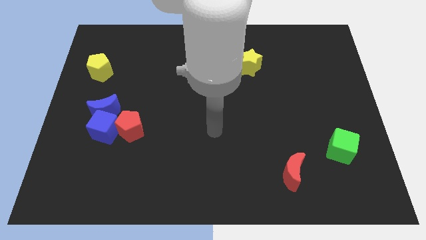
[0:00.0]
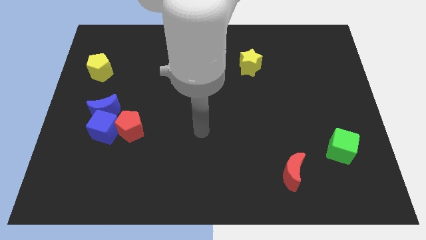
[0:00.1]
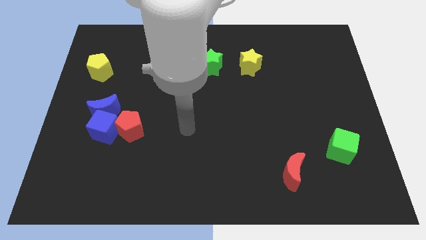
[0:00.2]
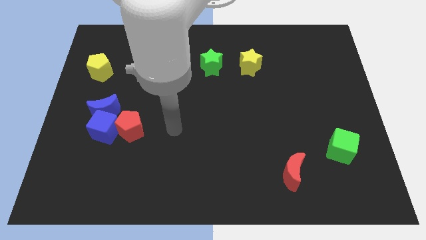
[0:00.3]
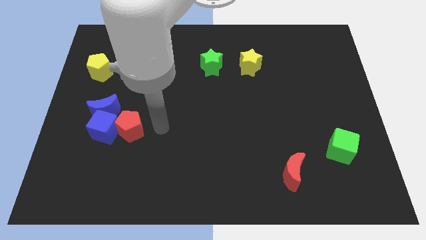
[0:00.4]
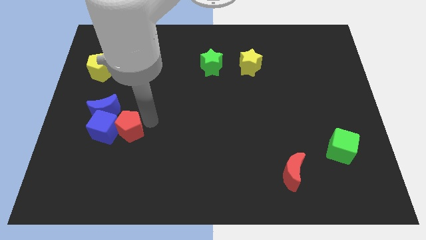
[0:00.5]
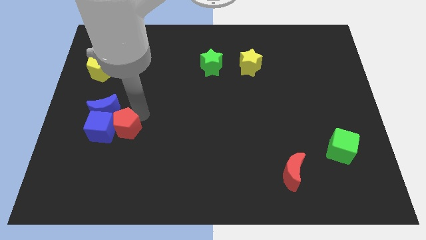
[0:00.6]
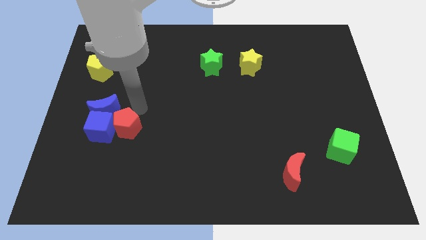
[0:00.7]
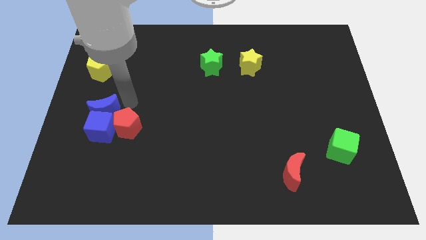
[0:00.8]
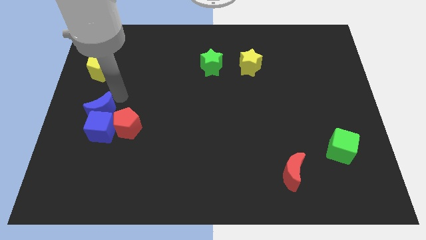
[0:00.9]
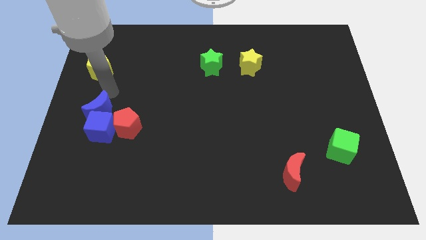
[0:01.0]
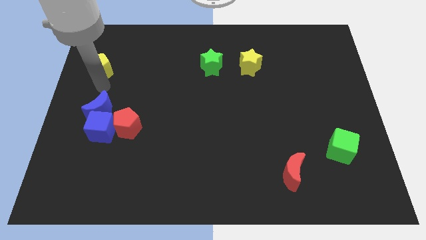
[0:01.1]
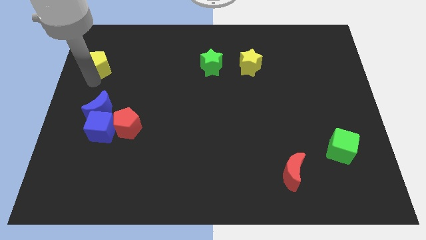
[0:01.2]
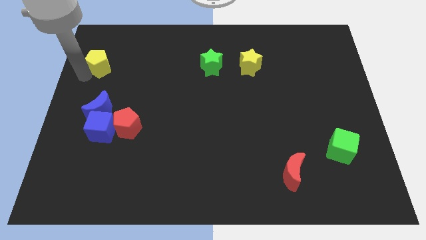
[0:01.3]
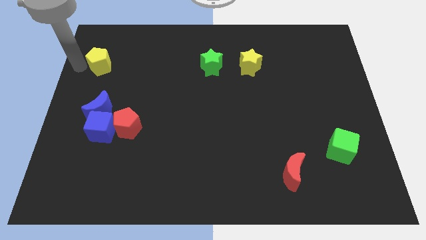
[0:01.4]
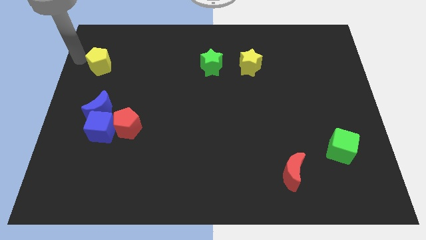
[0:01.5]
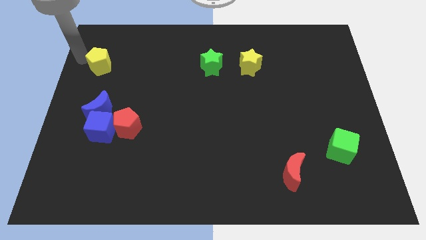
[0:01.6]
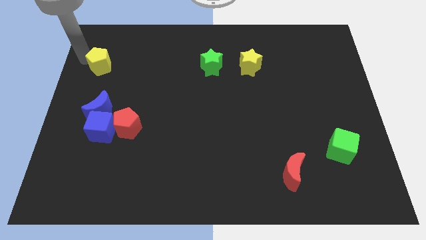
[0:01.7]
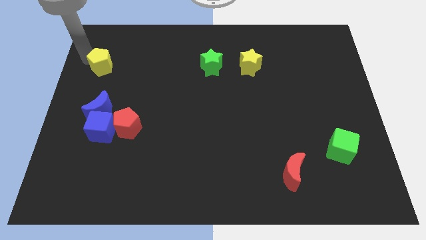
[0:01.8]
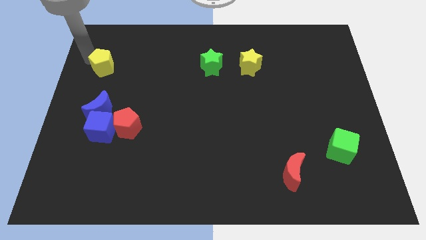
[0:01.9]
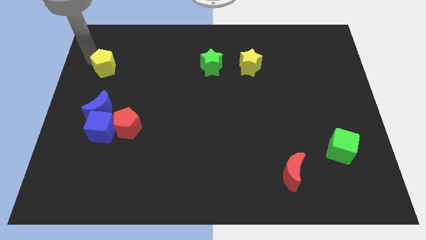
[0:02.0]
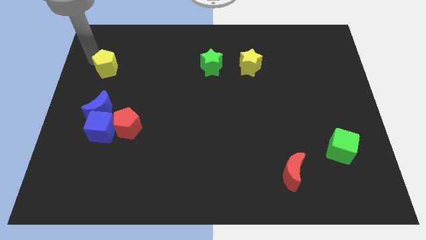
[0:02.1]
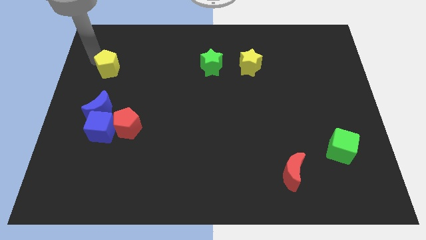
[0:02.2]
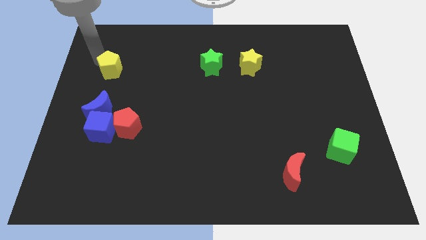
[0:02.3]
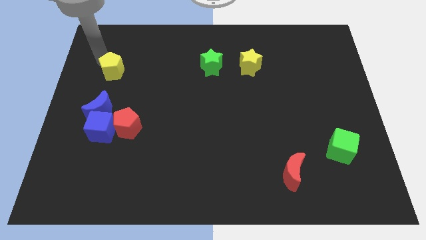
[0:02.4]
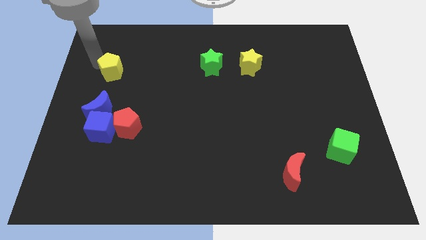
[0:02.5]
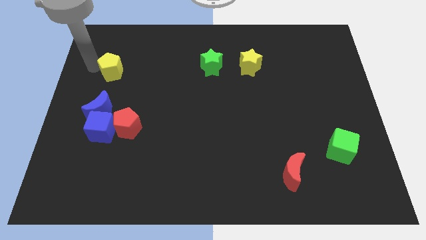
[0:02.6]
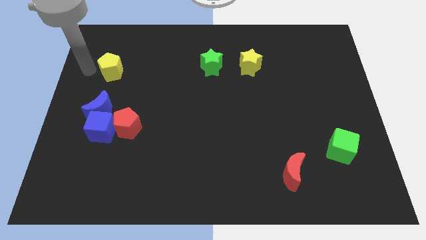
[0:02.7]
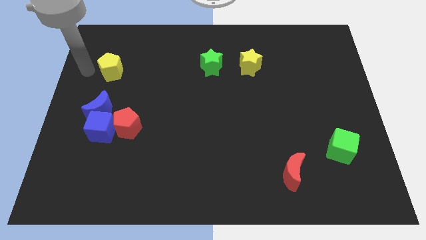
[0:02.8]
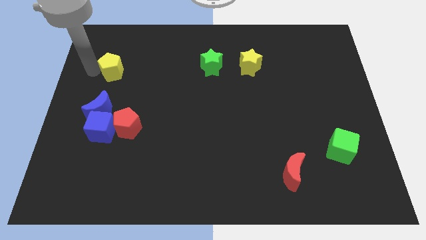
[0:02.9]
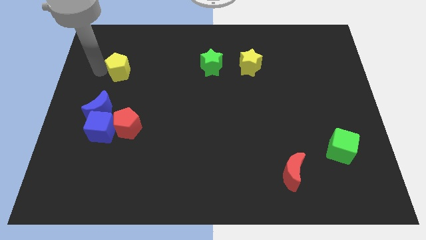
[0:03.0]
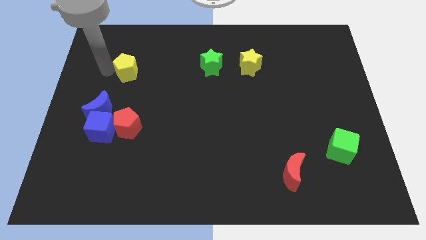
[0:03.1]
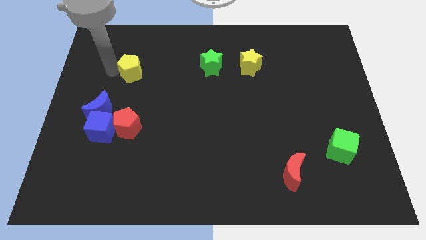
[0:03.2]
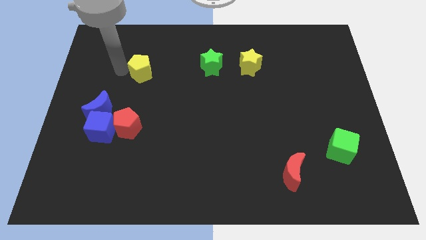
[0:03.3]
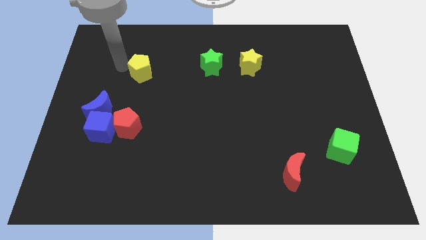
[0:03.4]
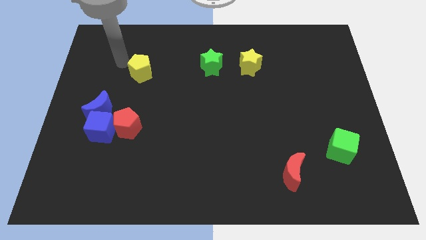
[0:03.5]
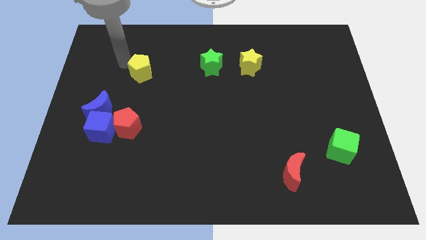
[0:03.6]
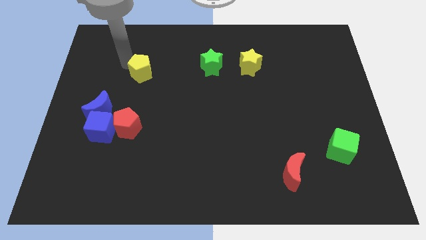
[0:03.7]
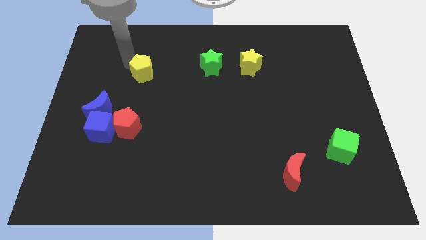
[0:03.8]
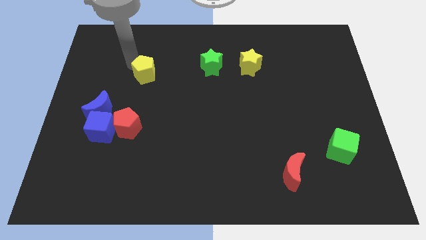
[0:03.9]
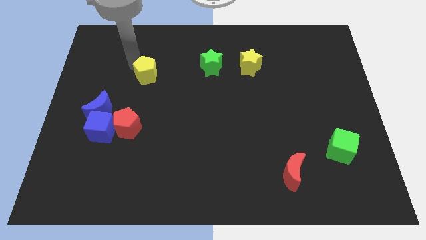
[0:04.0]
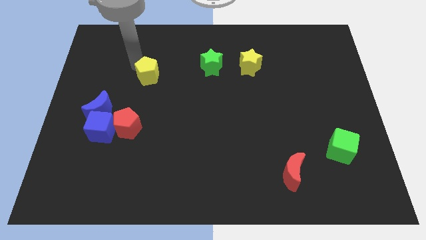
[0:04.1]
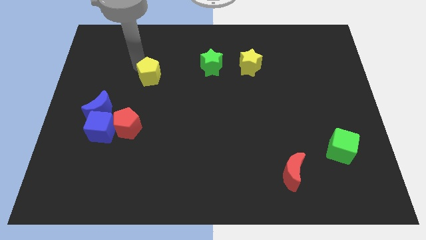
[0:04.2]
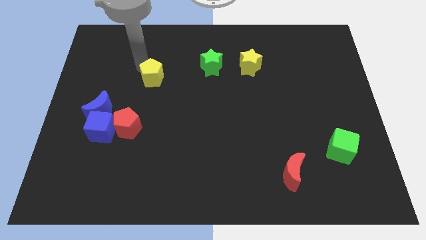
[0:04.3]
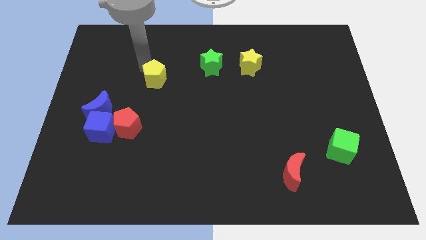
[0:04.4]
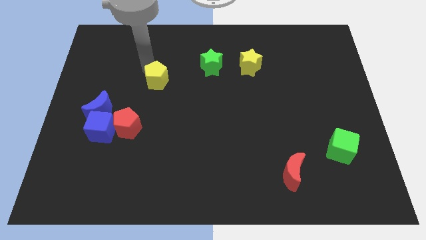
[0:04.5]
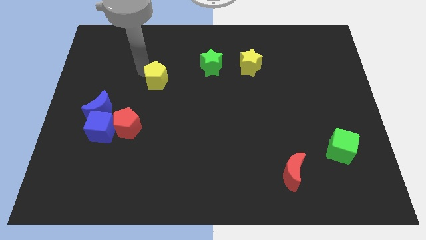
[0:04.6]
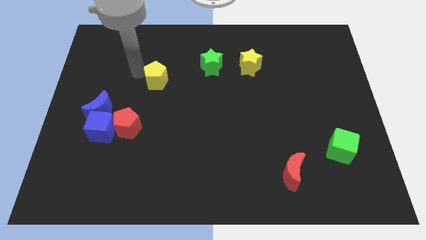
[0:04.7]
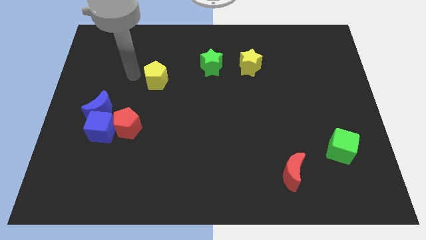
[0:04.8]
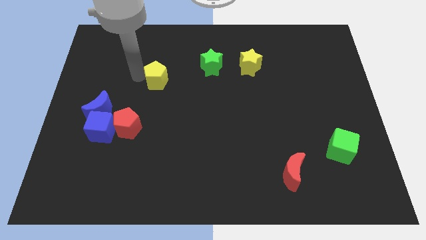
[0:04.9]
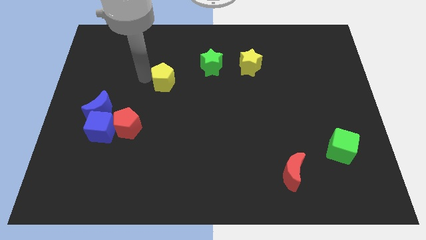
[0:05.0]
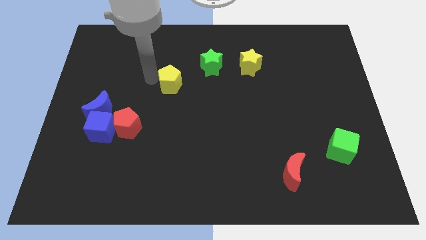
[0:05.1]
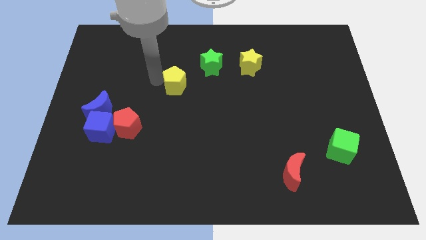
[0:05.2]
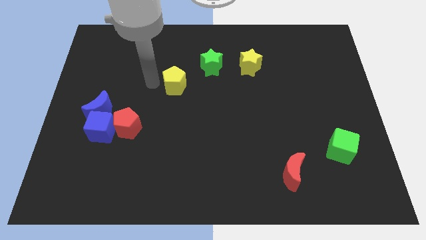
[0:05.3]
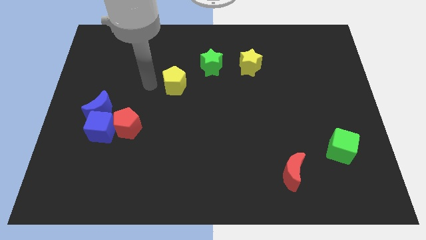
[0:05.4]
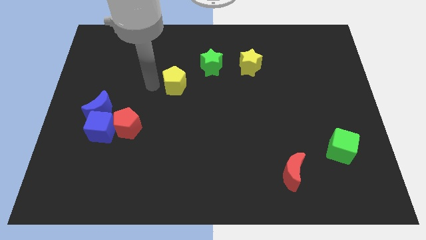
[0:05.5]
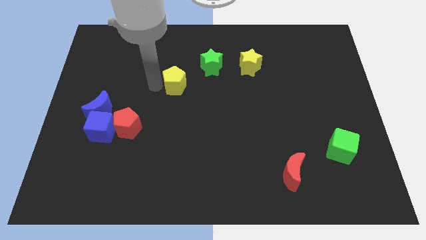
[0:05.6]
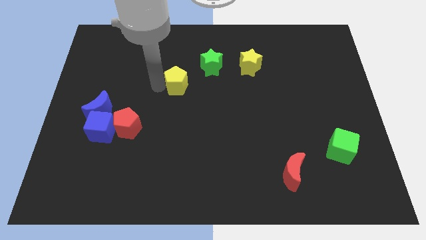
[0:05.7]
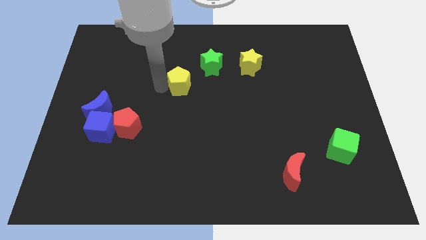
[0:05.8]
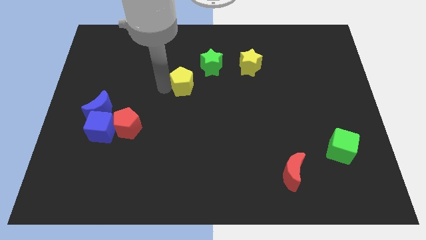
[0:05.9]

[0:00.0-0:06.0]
push the yellow pentagon to the right

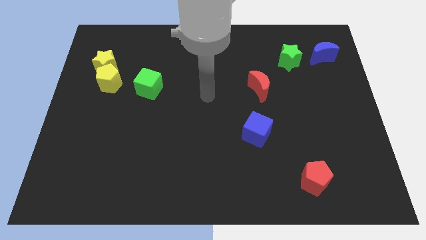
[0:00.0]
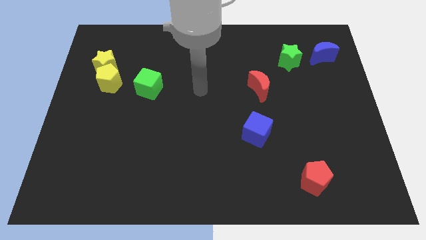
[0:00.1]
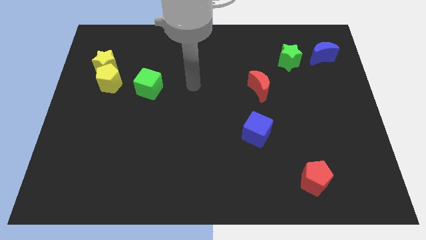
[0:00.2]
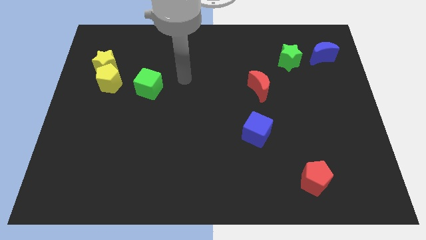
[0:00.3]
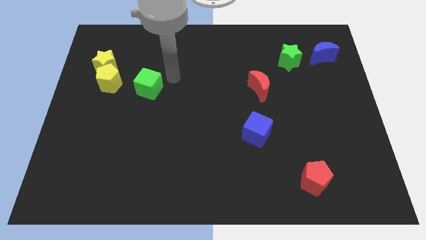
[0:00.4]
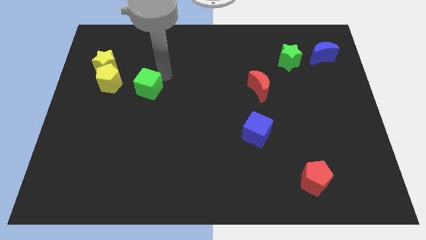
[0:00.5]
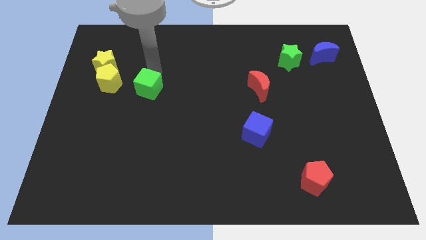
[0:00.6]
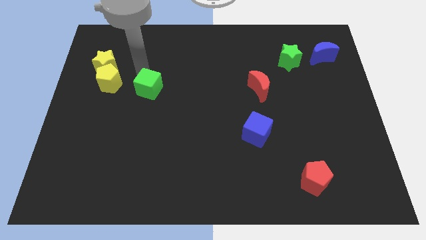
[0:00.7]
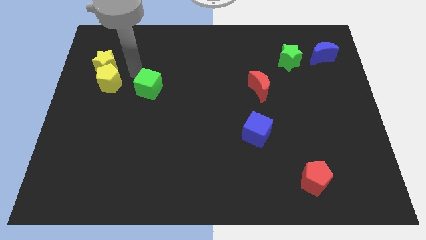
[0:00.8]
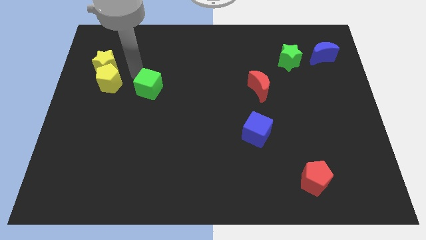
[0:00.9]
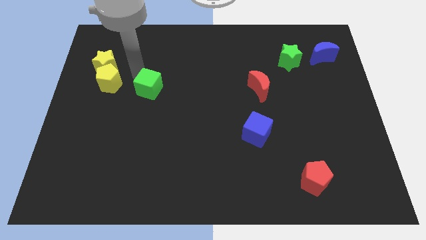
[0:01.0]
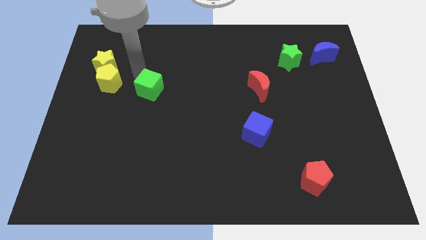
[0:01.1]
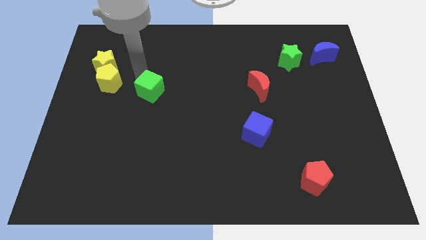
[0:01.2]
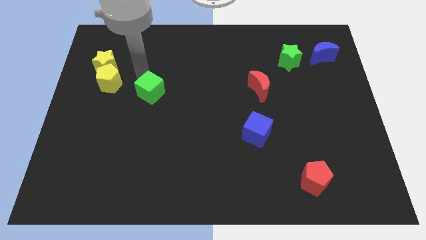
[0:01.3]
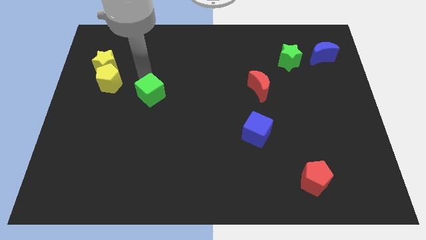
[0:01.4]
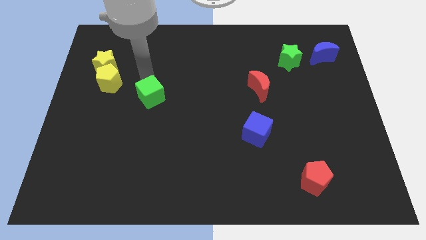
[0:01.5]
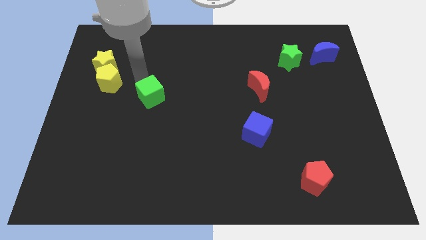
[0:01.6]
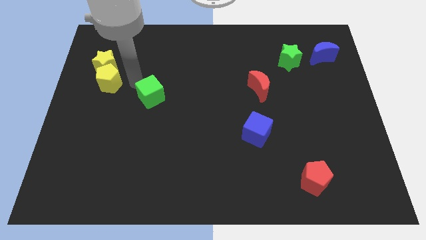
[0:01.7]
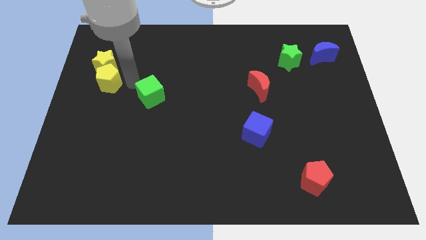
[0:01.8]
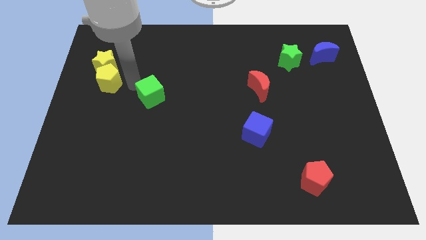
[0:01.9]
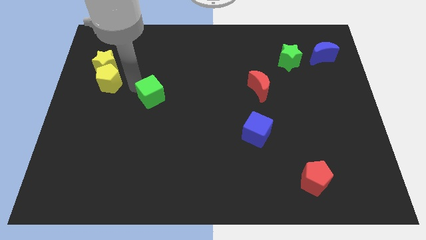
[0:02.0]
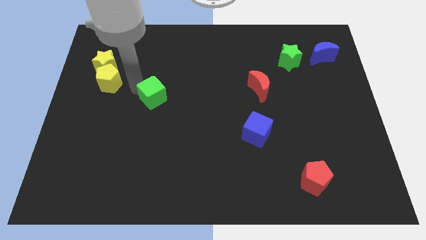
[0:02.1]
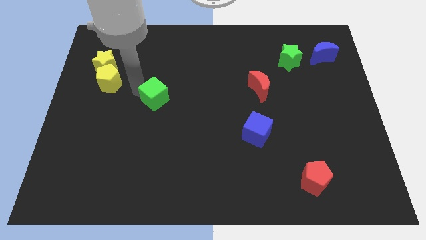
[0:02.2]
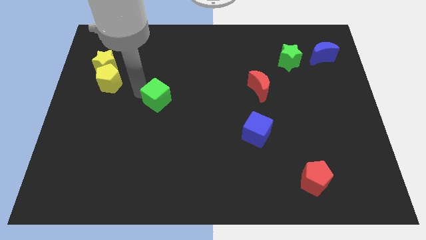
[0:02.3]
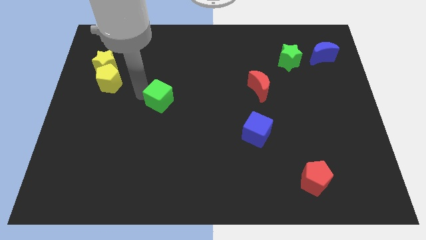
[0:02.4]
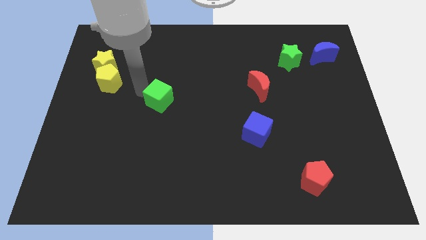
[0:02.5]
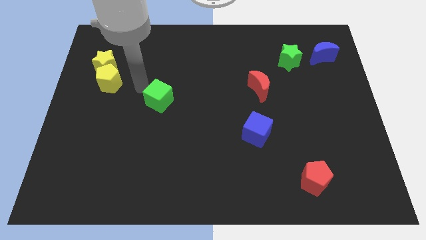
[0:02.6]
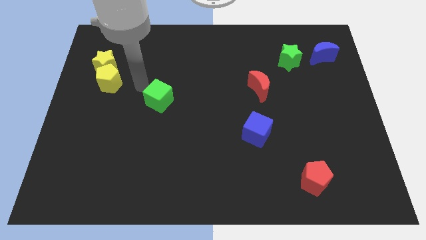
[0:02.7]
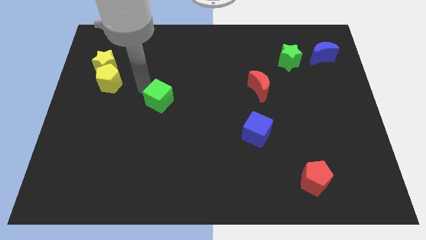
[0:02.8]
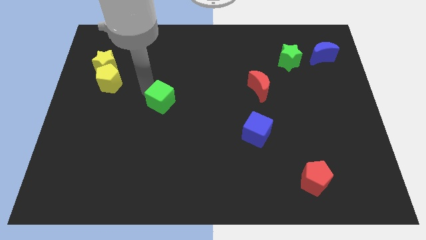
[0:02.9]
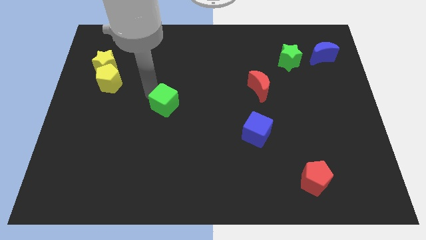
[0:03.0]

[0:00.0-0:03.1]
slide the green cube a bit down and to the right diagonally
